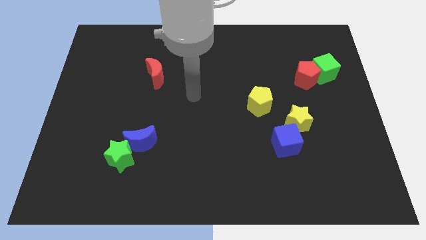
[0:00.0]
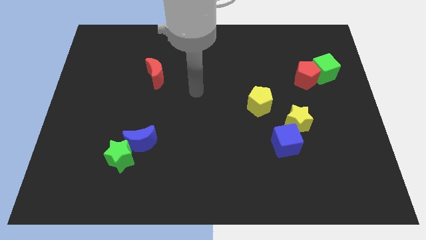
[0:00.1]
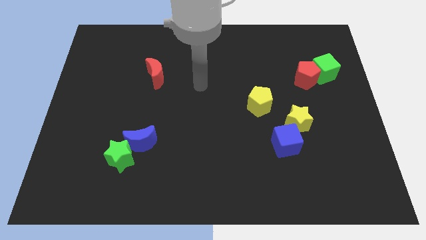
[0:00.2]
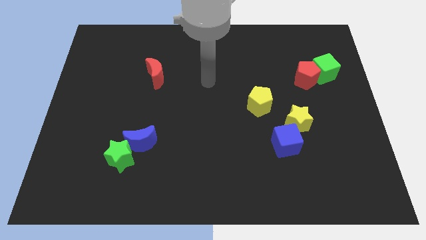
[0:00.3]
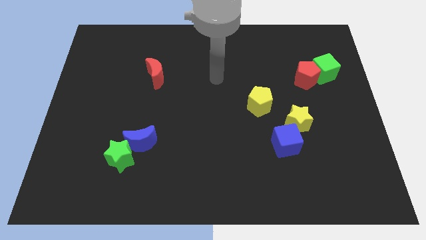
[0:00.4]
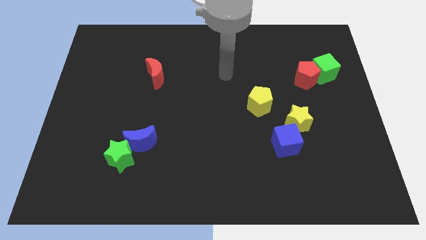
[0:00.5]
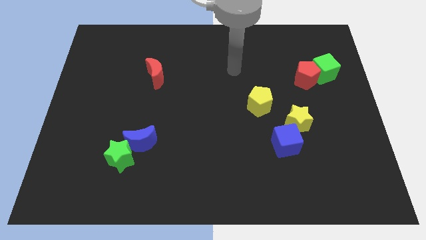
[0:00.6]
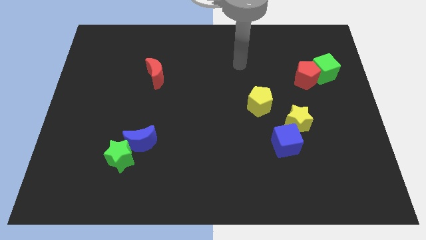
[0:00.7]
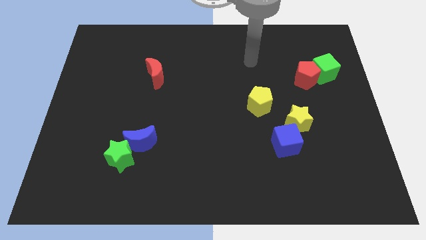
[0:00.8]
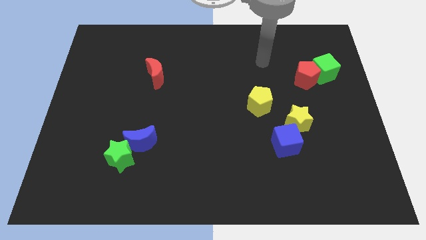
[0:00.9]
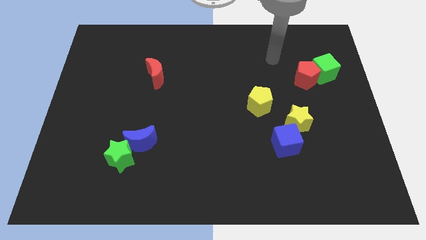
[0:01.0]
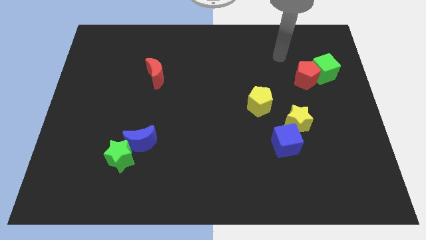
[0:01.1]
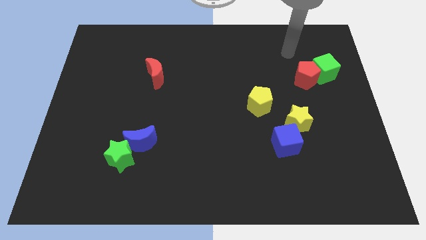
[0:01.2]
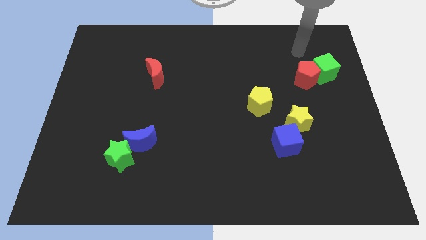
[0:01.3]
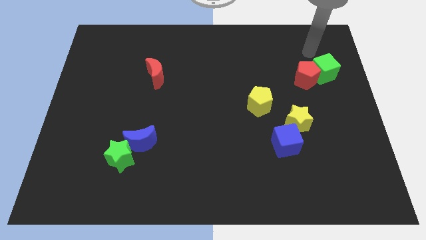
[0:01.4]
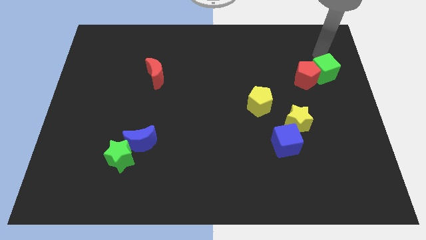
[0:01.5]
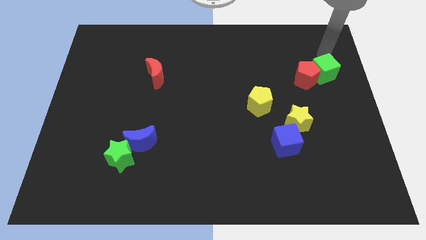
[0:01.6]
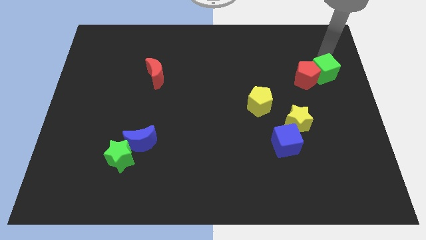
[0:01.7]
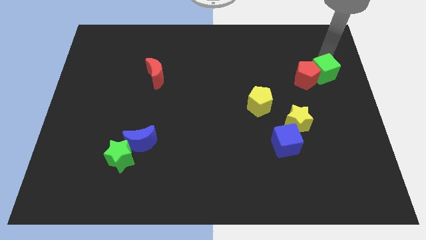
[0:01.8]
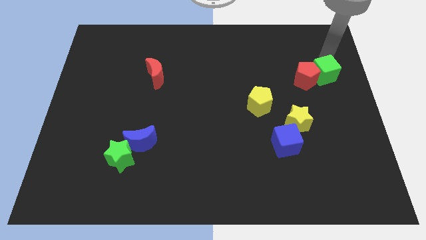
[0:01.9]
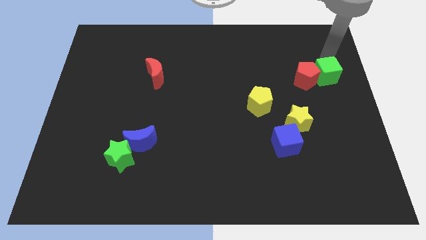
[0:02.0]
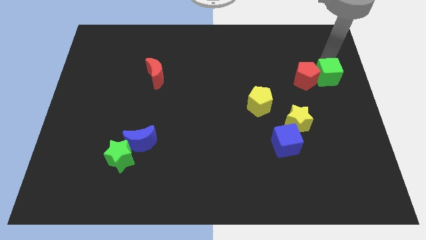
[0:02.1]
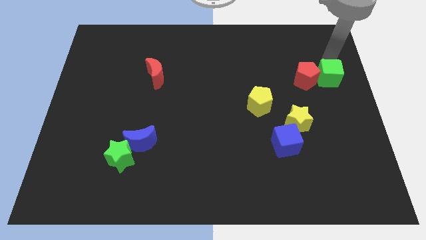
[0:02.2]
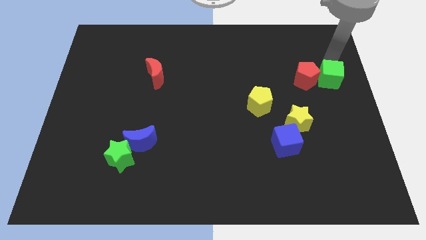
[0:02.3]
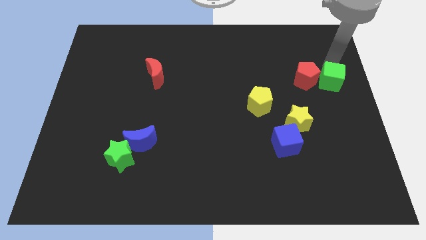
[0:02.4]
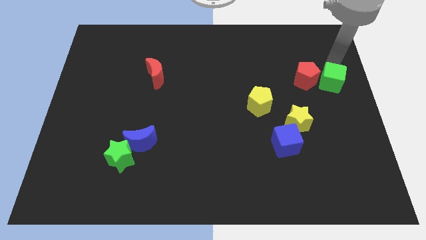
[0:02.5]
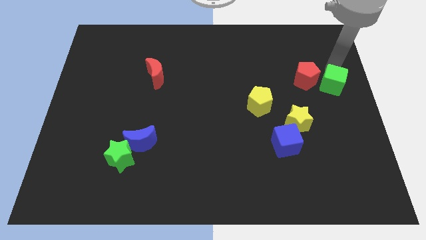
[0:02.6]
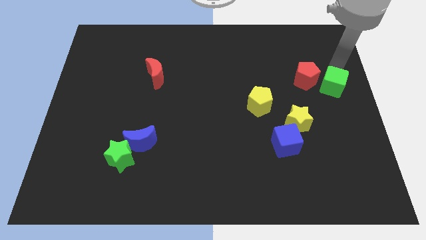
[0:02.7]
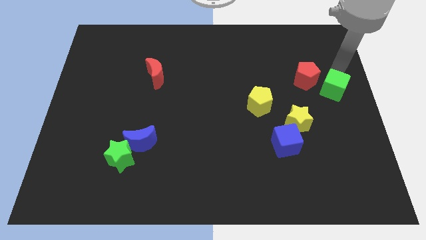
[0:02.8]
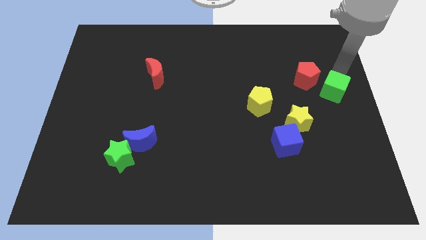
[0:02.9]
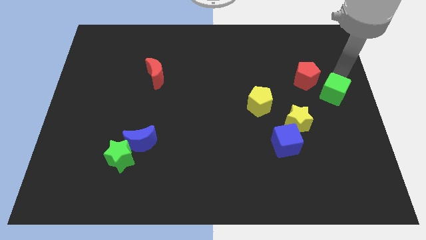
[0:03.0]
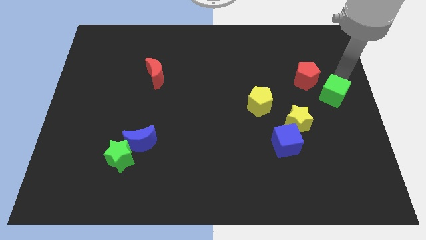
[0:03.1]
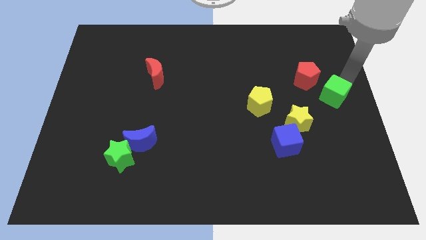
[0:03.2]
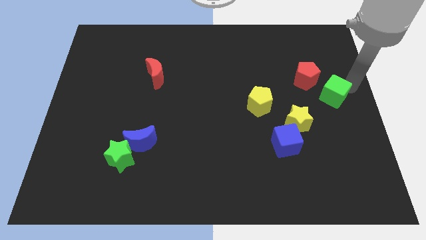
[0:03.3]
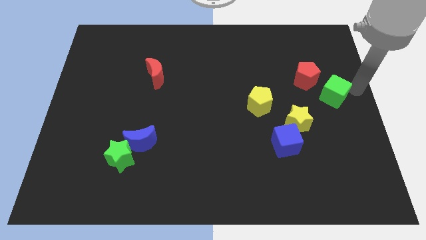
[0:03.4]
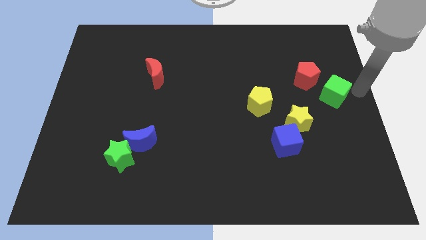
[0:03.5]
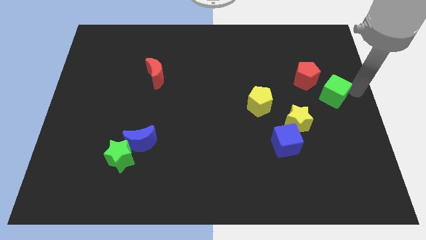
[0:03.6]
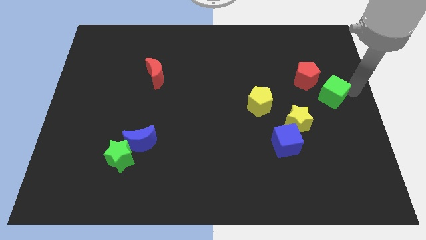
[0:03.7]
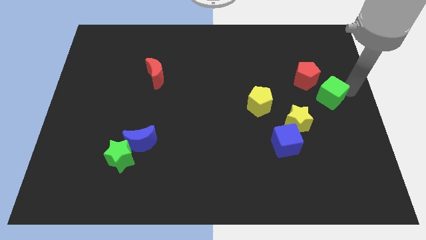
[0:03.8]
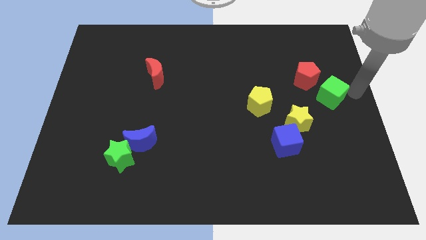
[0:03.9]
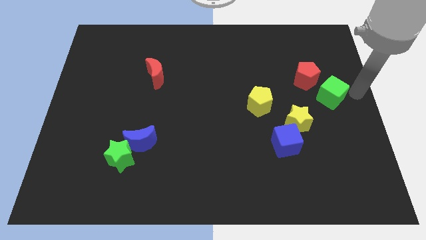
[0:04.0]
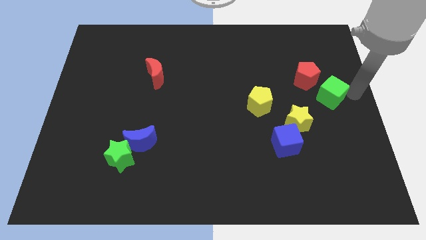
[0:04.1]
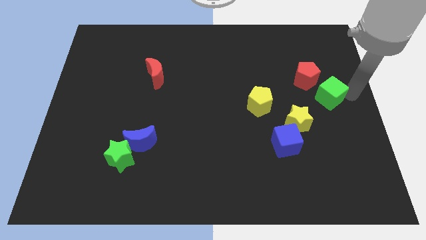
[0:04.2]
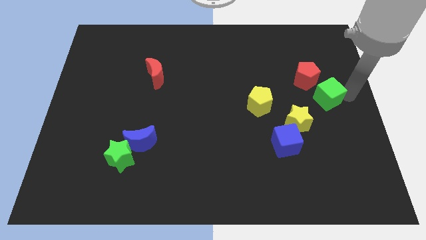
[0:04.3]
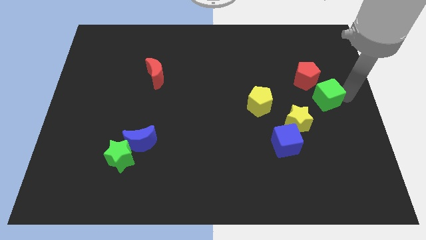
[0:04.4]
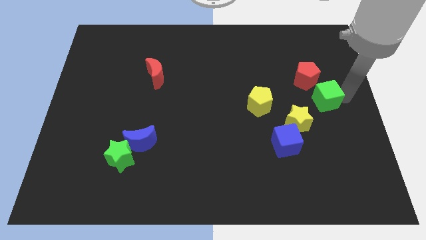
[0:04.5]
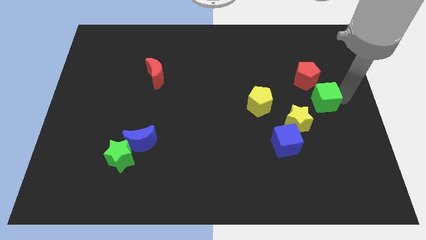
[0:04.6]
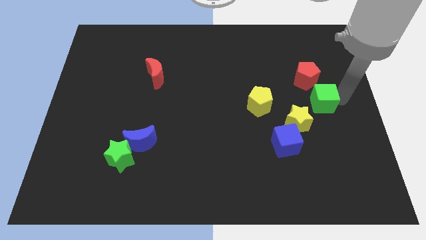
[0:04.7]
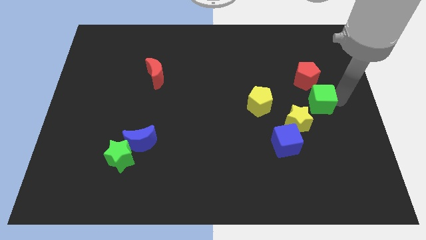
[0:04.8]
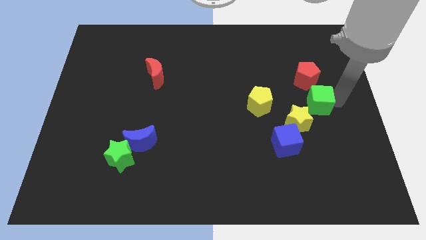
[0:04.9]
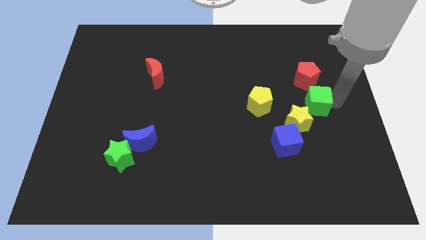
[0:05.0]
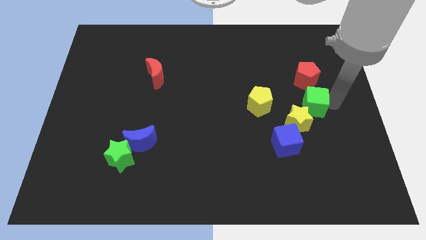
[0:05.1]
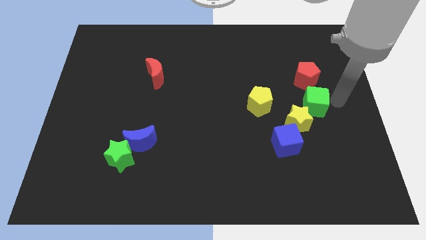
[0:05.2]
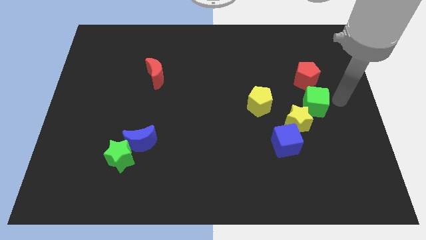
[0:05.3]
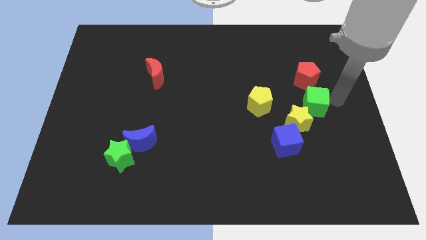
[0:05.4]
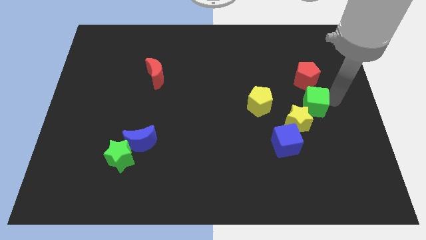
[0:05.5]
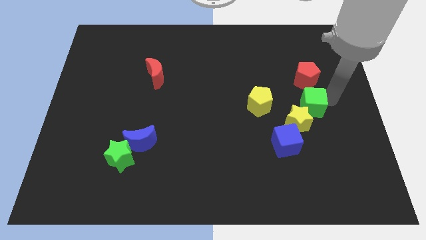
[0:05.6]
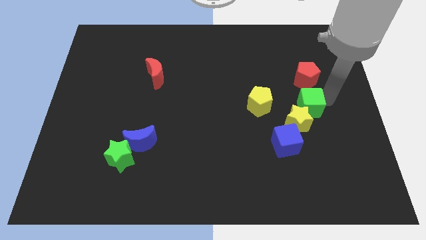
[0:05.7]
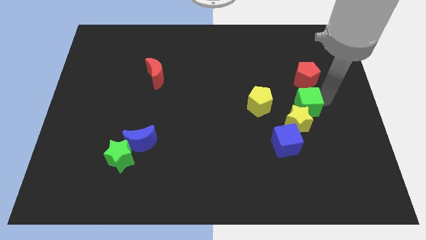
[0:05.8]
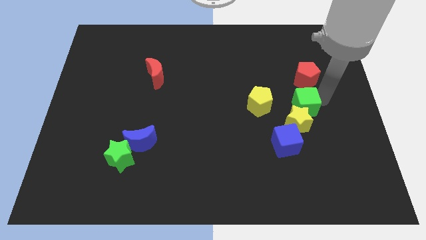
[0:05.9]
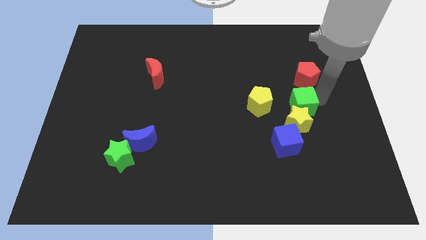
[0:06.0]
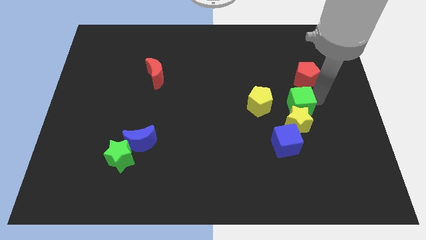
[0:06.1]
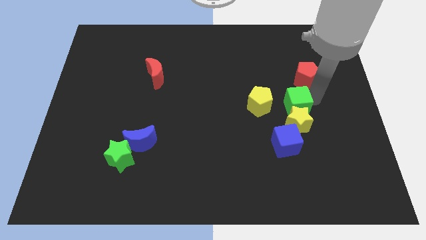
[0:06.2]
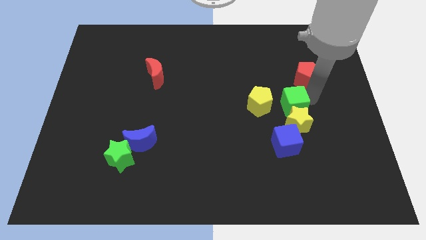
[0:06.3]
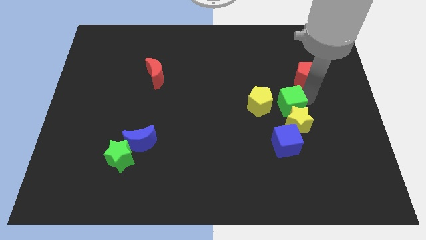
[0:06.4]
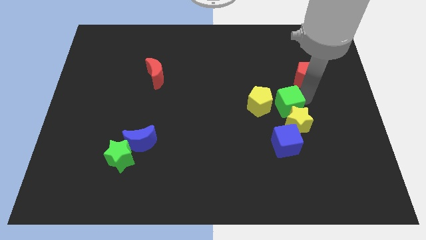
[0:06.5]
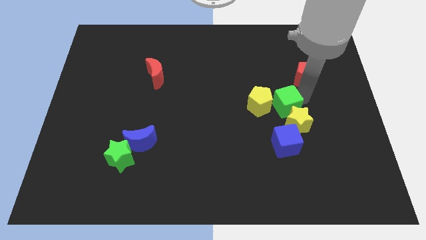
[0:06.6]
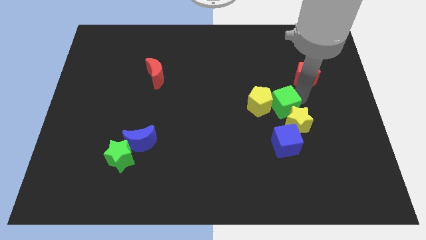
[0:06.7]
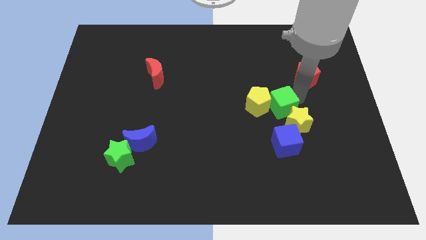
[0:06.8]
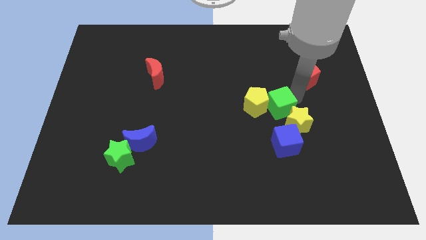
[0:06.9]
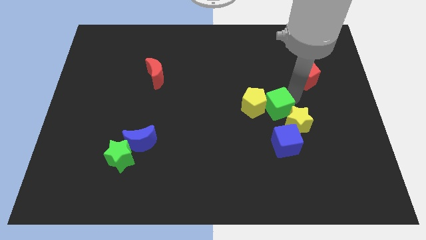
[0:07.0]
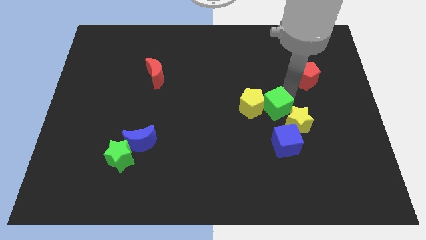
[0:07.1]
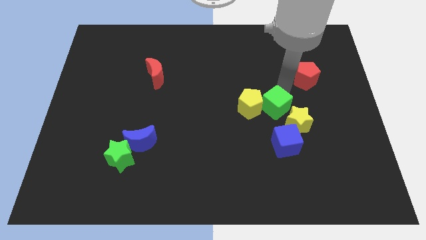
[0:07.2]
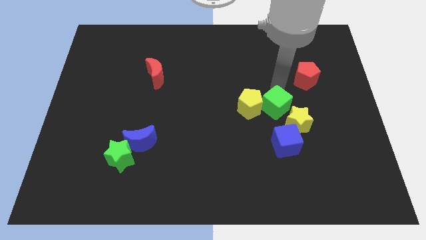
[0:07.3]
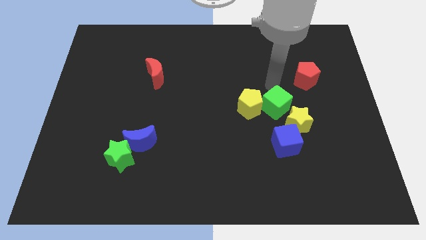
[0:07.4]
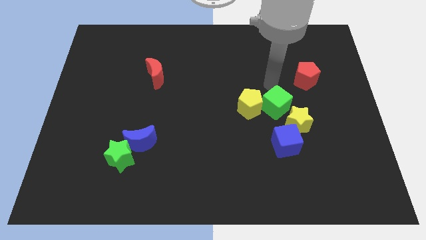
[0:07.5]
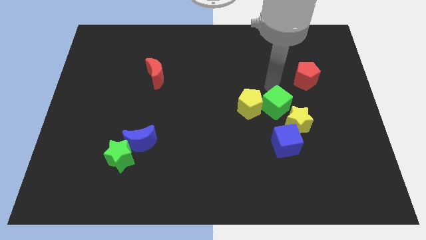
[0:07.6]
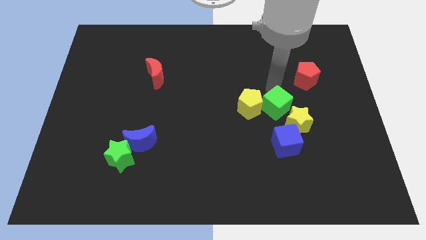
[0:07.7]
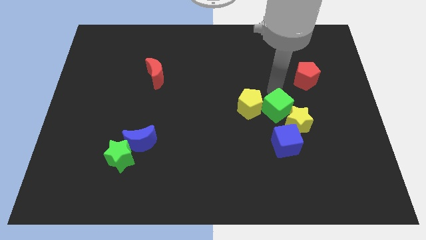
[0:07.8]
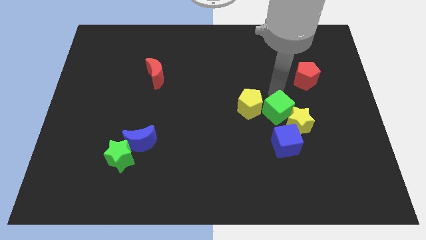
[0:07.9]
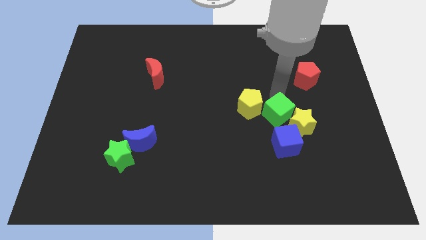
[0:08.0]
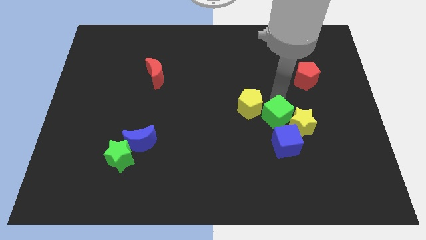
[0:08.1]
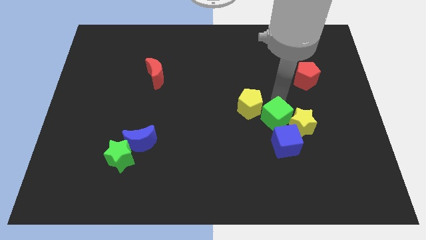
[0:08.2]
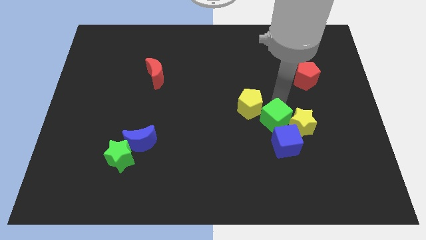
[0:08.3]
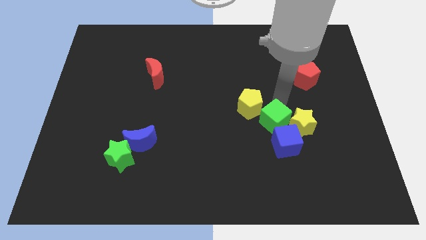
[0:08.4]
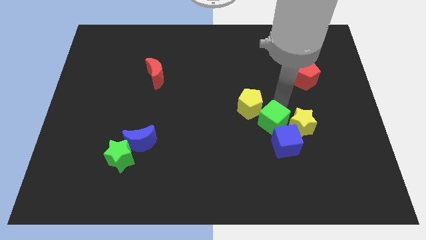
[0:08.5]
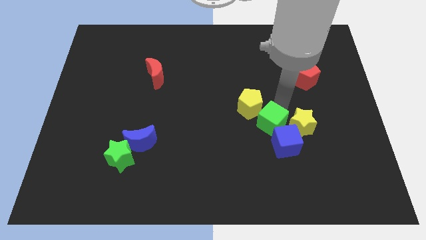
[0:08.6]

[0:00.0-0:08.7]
move the green cube to the blue cube
